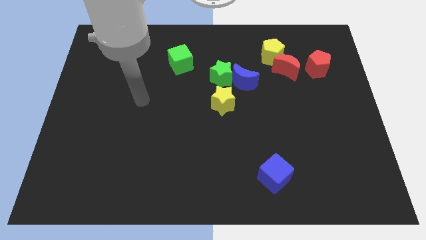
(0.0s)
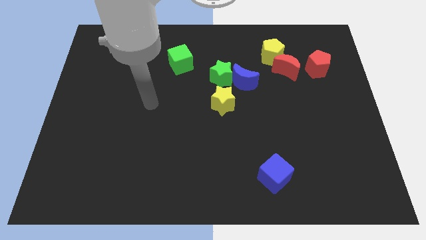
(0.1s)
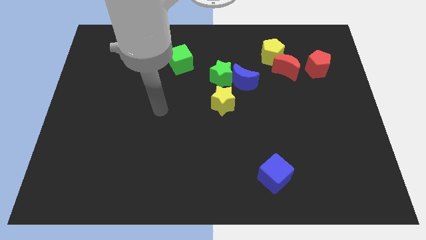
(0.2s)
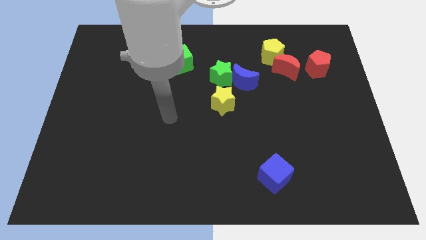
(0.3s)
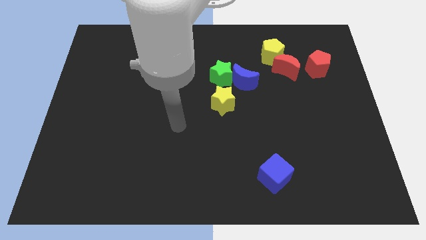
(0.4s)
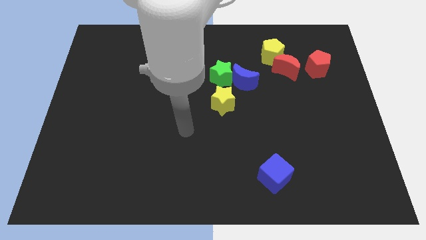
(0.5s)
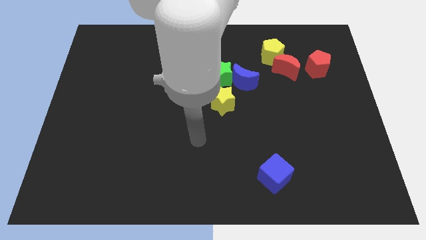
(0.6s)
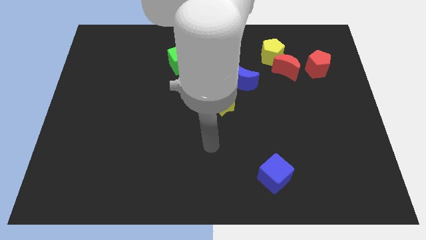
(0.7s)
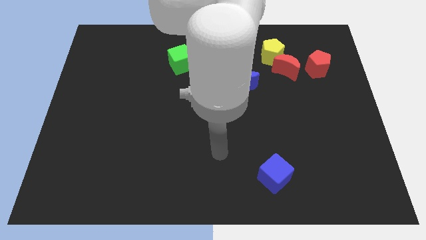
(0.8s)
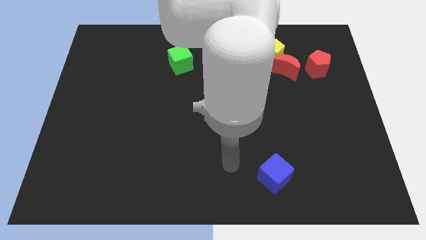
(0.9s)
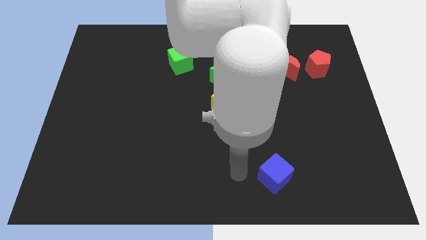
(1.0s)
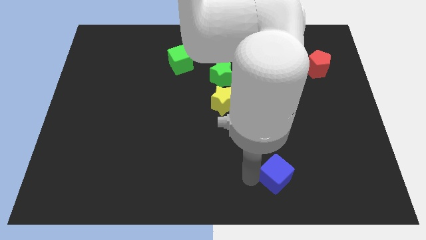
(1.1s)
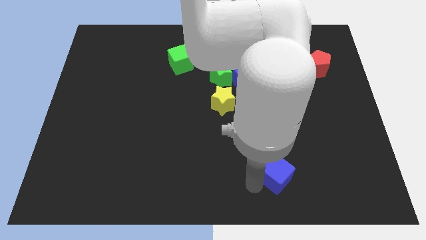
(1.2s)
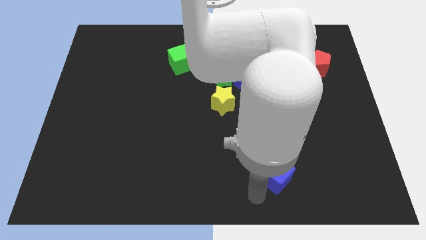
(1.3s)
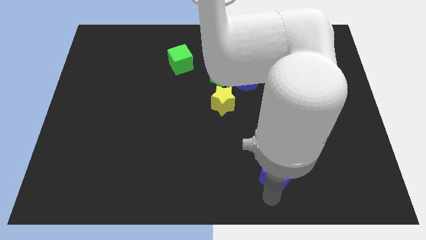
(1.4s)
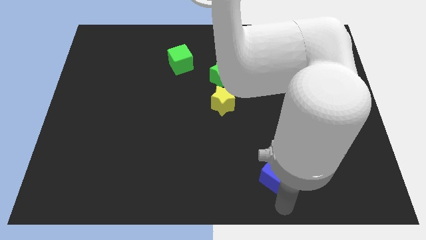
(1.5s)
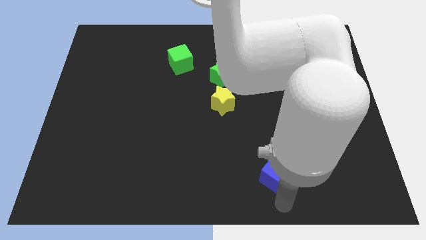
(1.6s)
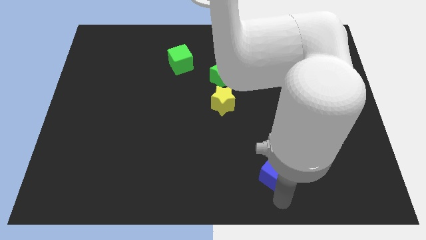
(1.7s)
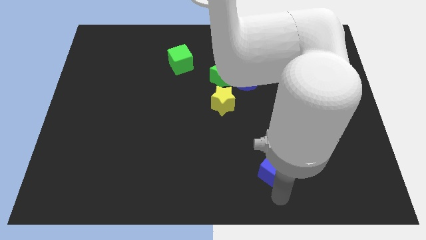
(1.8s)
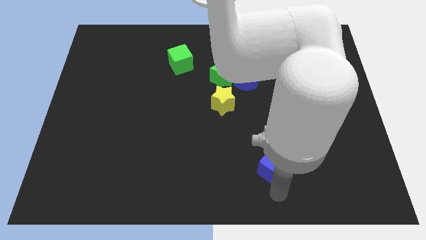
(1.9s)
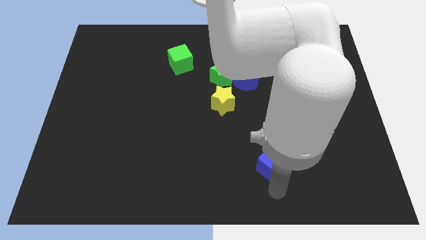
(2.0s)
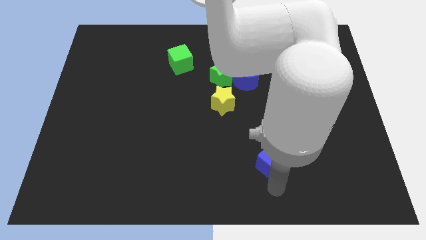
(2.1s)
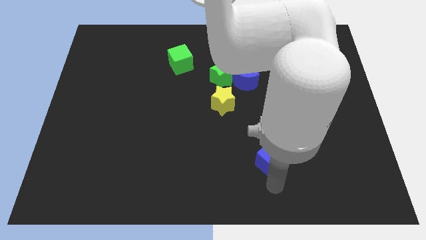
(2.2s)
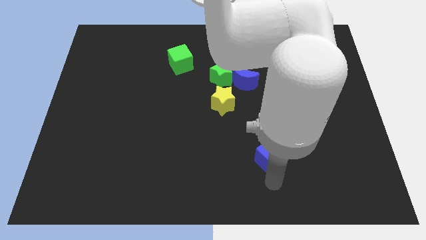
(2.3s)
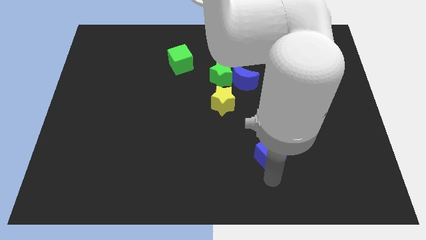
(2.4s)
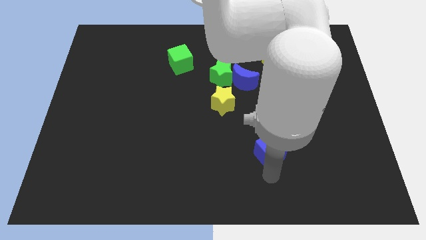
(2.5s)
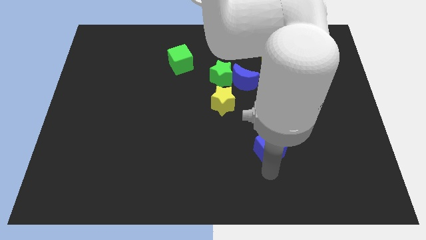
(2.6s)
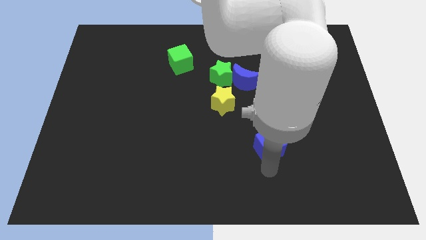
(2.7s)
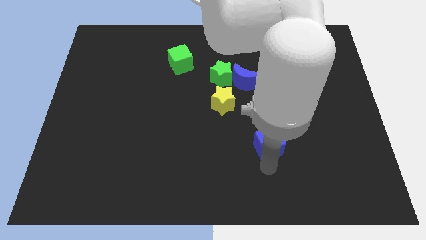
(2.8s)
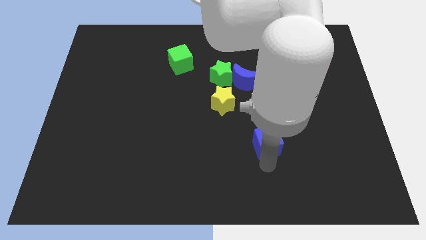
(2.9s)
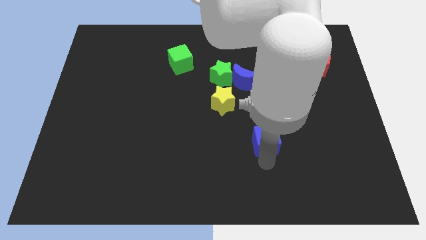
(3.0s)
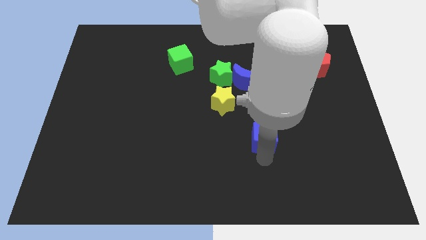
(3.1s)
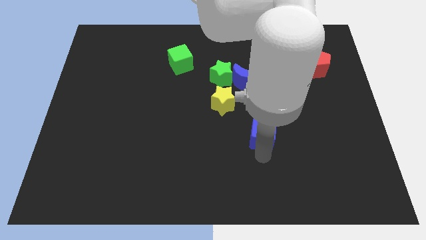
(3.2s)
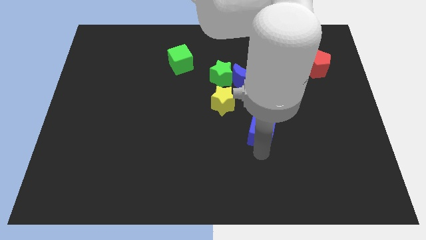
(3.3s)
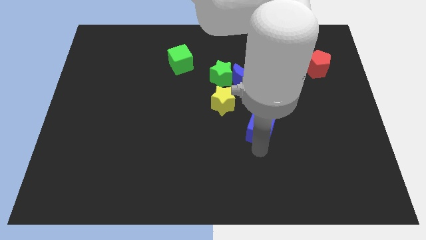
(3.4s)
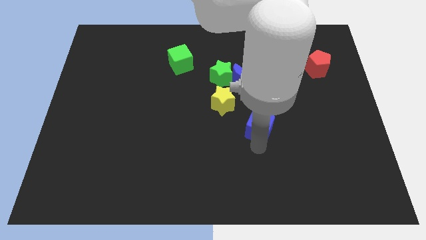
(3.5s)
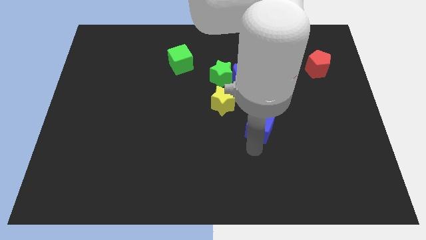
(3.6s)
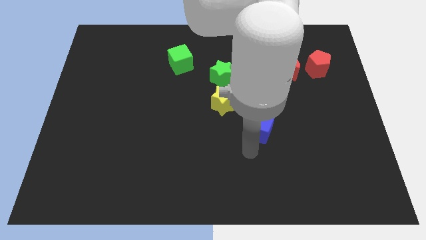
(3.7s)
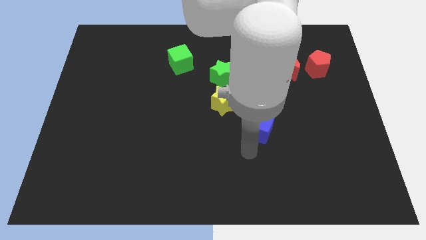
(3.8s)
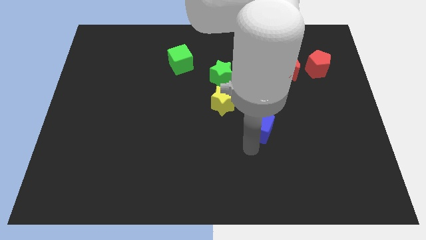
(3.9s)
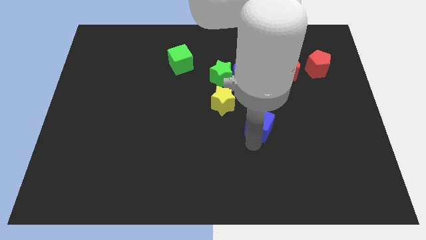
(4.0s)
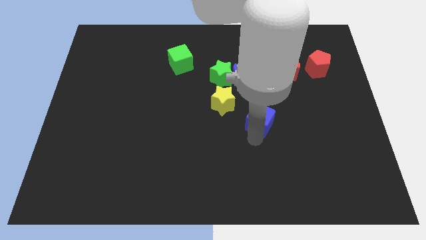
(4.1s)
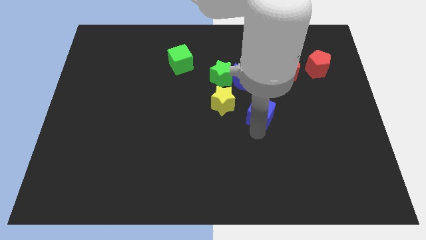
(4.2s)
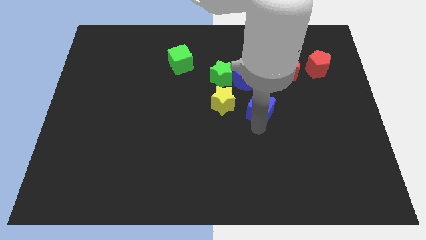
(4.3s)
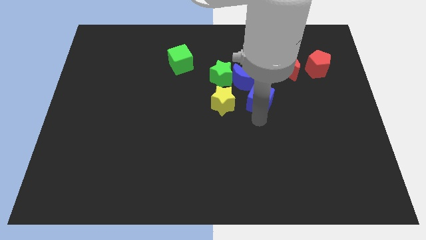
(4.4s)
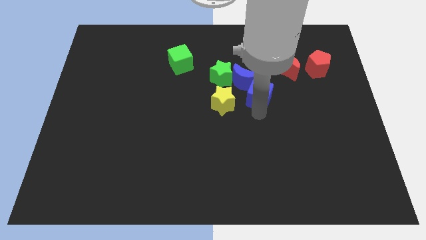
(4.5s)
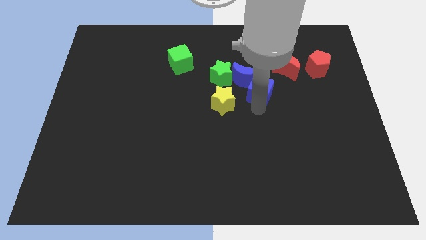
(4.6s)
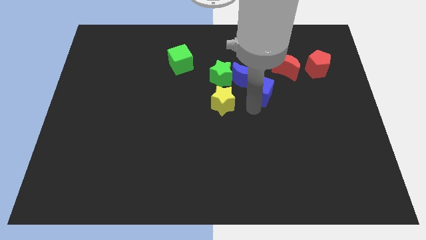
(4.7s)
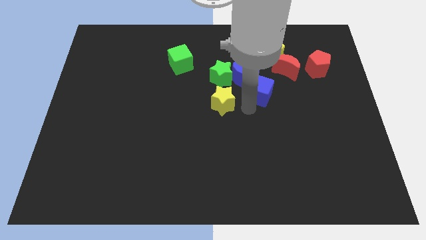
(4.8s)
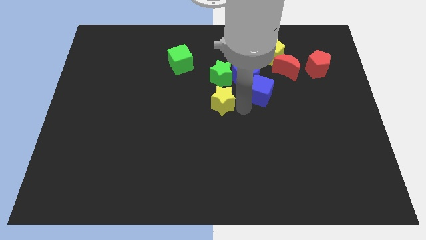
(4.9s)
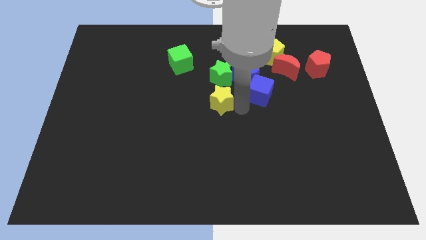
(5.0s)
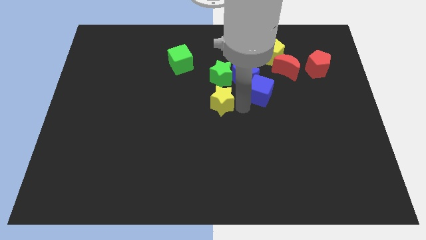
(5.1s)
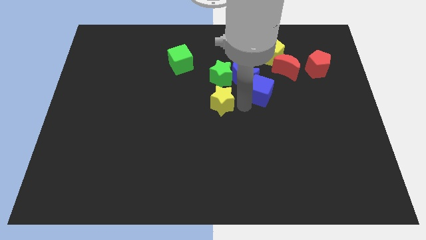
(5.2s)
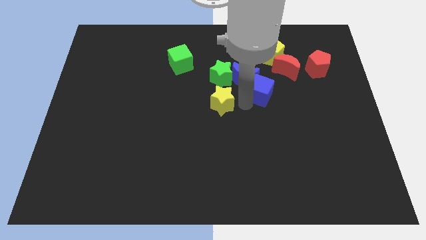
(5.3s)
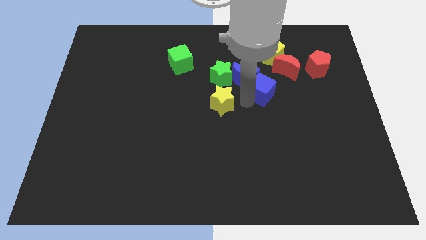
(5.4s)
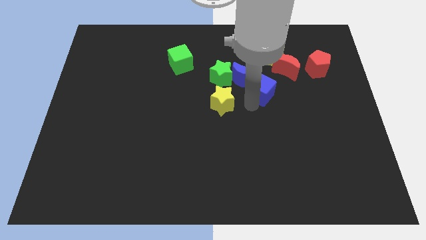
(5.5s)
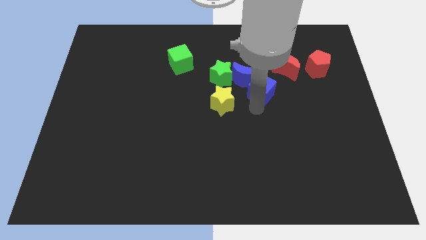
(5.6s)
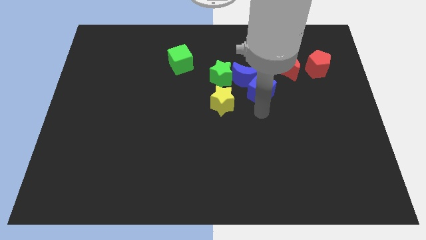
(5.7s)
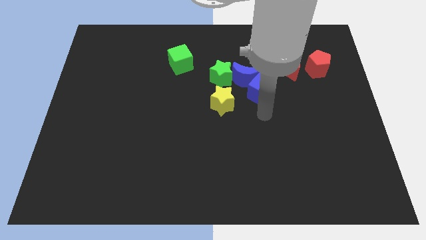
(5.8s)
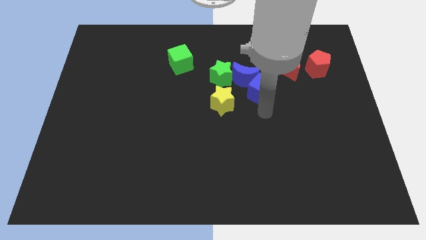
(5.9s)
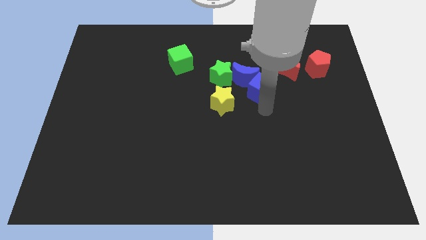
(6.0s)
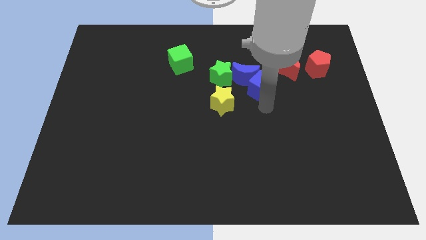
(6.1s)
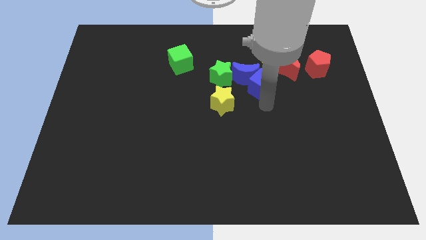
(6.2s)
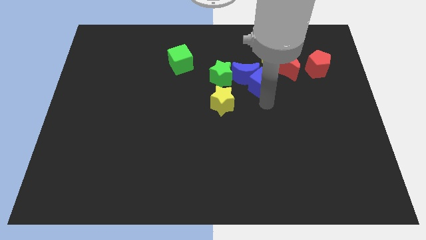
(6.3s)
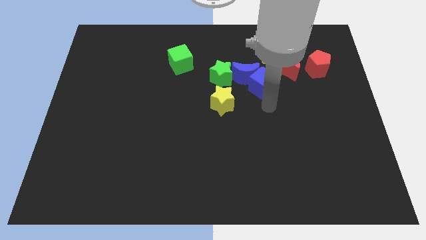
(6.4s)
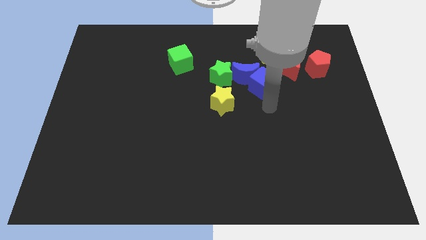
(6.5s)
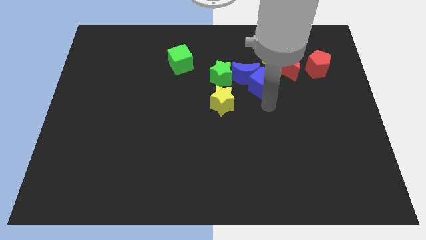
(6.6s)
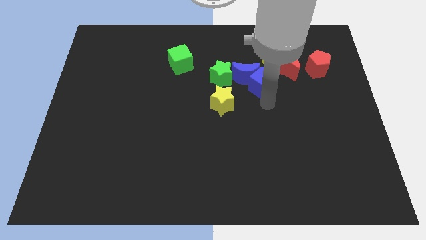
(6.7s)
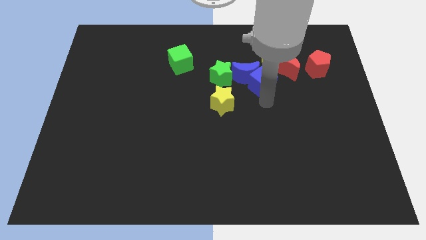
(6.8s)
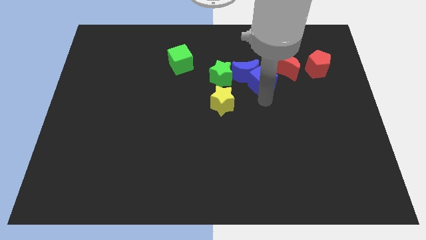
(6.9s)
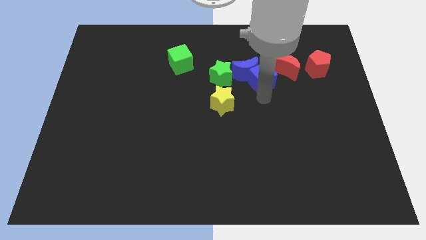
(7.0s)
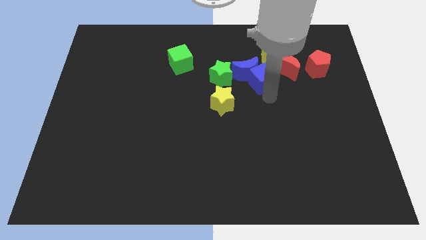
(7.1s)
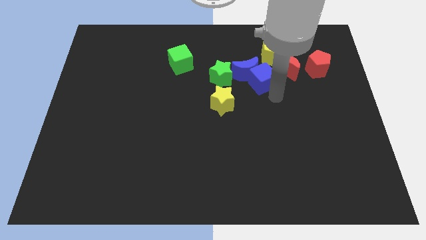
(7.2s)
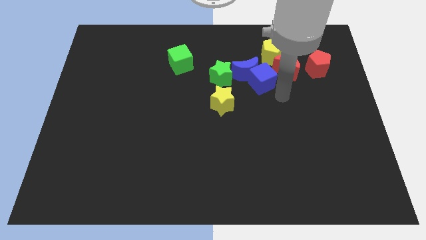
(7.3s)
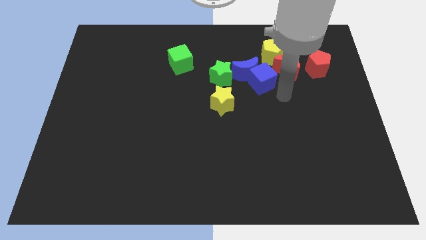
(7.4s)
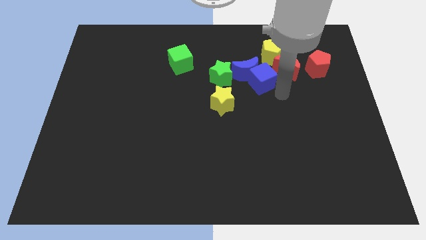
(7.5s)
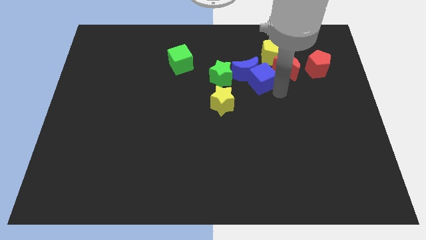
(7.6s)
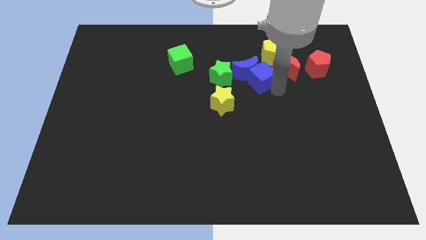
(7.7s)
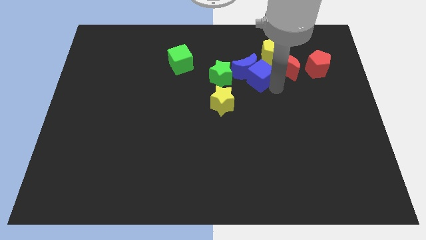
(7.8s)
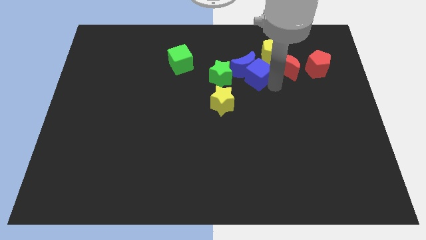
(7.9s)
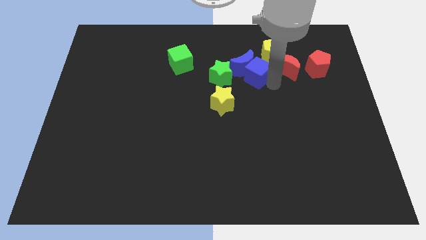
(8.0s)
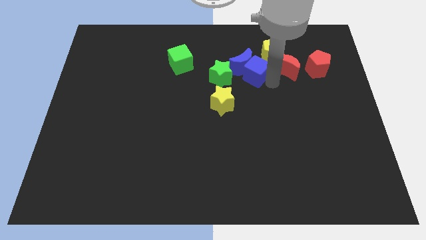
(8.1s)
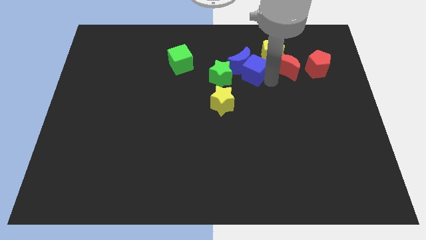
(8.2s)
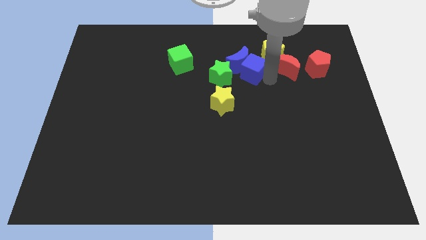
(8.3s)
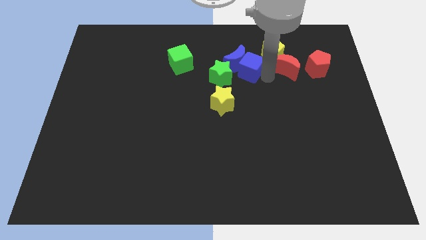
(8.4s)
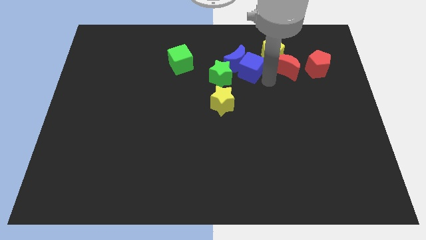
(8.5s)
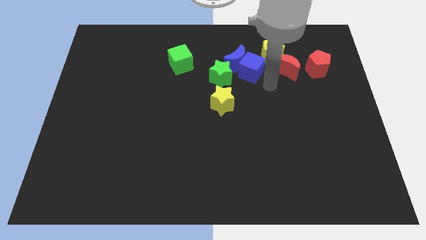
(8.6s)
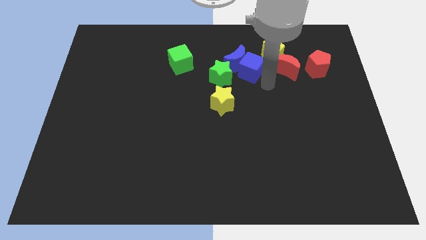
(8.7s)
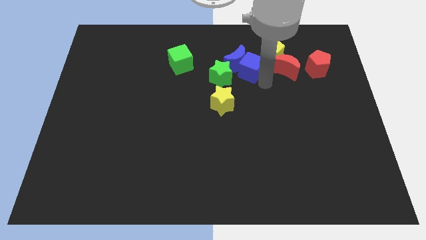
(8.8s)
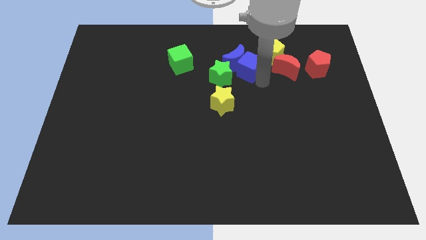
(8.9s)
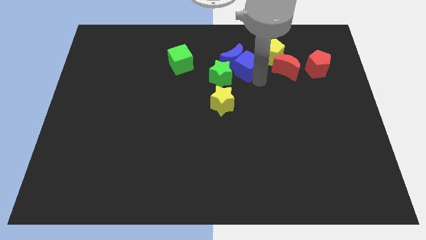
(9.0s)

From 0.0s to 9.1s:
put the blue cube to the left side of the yellow pentagon
